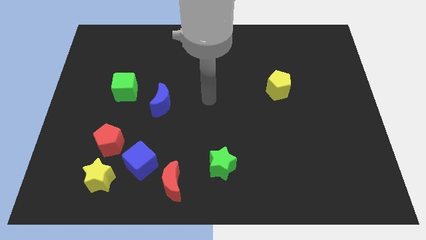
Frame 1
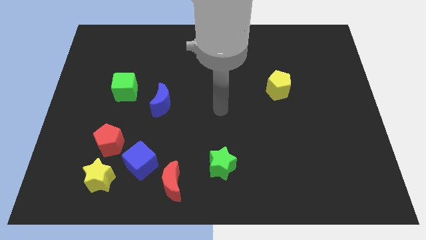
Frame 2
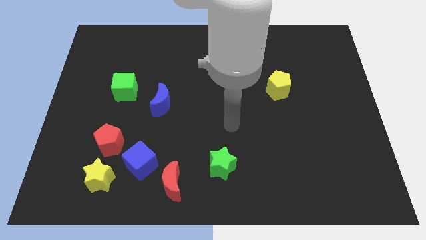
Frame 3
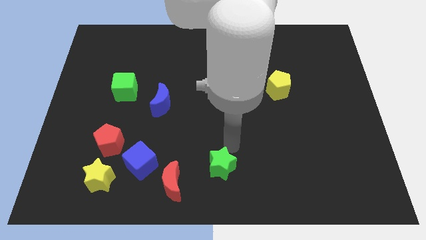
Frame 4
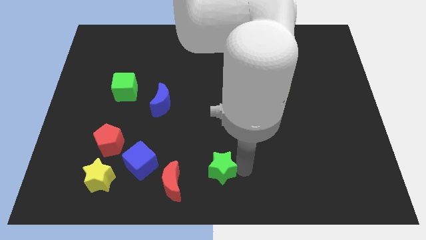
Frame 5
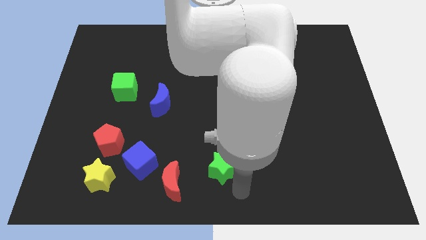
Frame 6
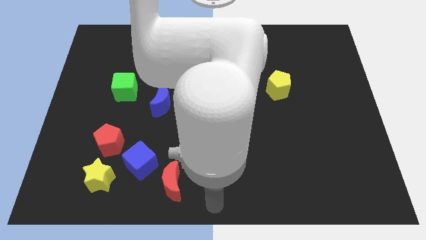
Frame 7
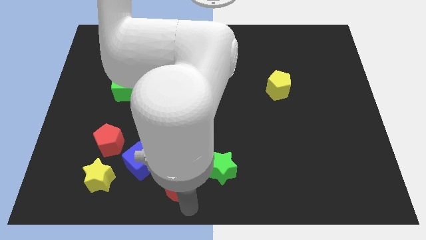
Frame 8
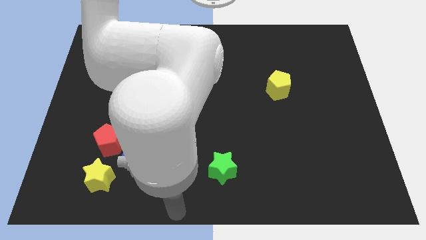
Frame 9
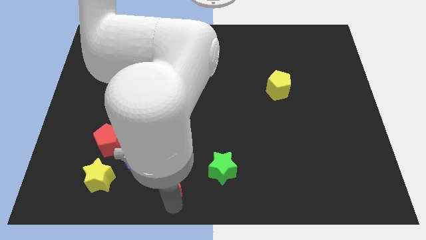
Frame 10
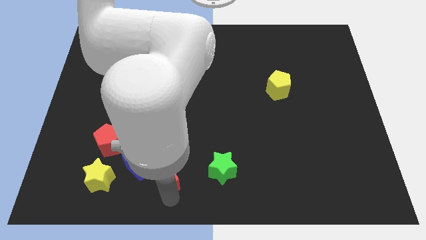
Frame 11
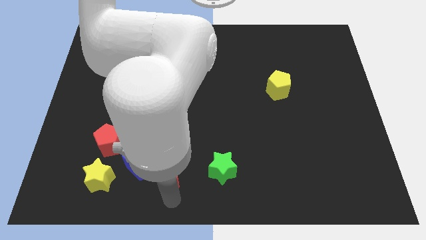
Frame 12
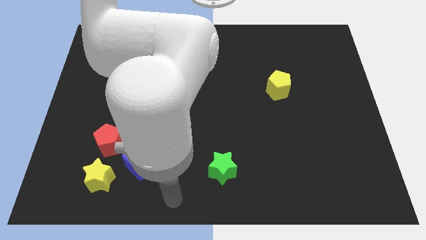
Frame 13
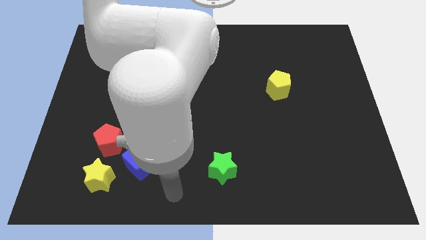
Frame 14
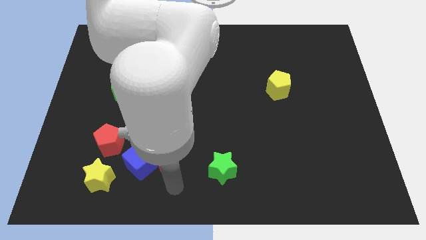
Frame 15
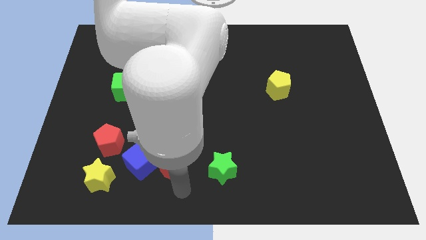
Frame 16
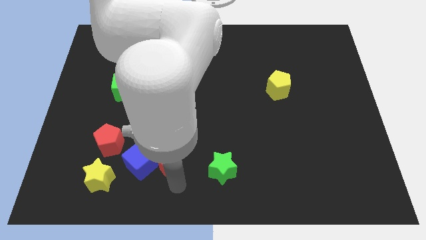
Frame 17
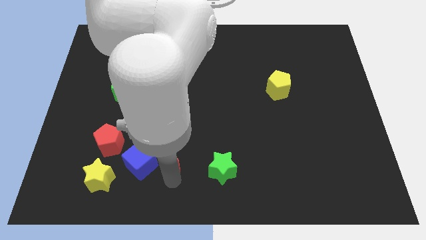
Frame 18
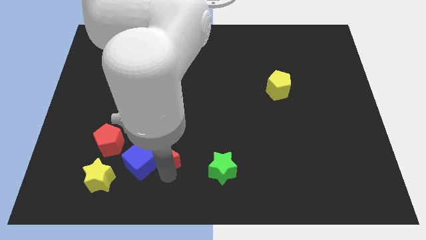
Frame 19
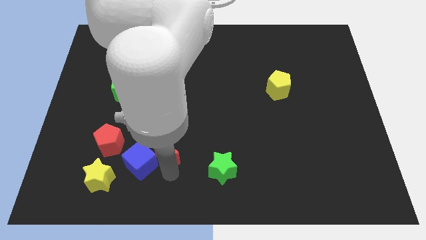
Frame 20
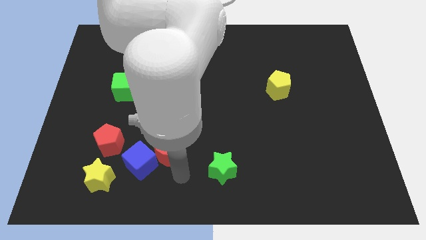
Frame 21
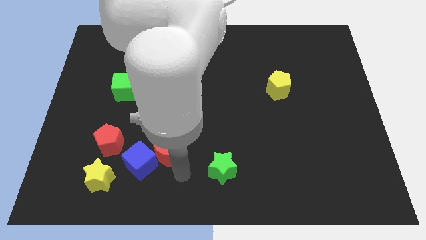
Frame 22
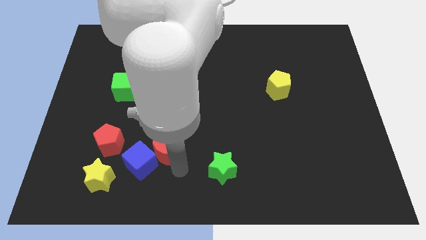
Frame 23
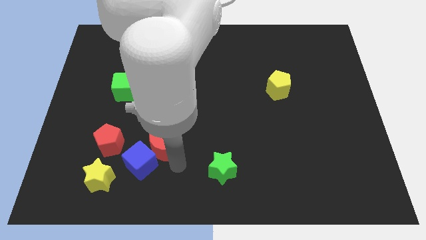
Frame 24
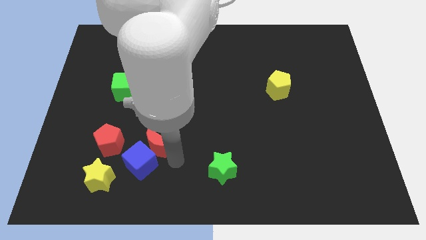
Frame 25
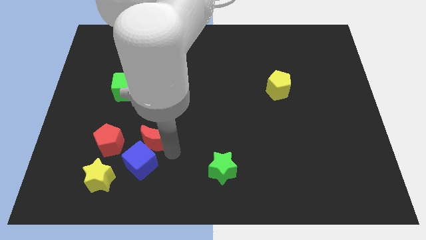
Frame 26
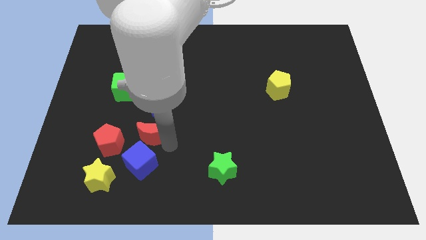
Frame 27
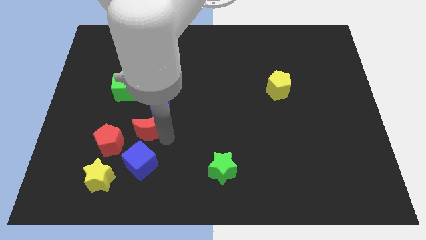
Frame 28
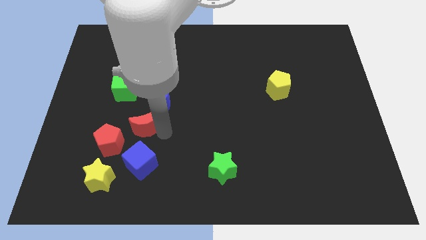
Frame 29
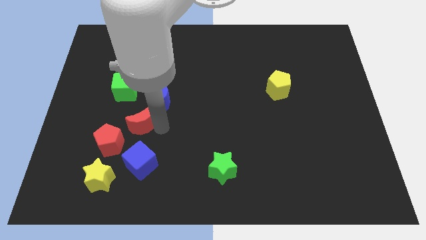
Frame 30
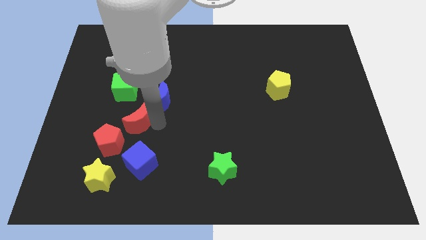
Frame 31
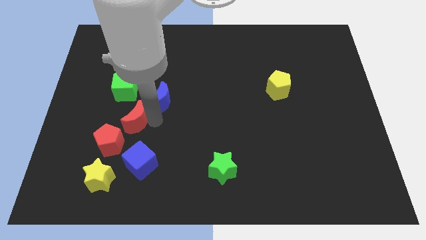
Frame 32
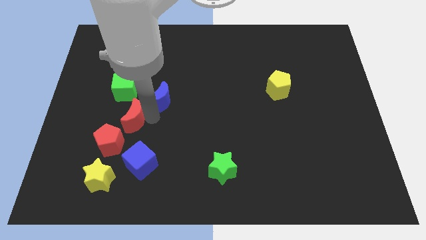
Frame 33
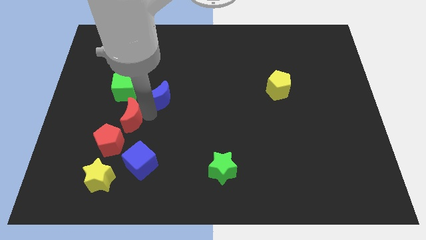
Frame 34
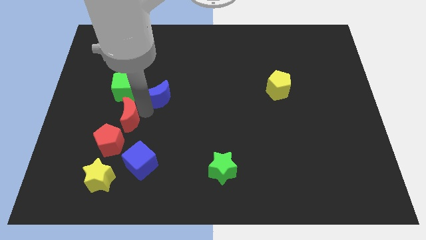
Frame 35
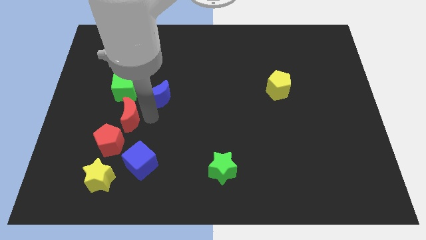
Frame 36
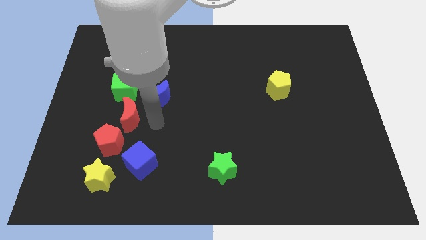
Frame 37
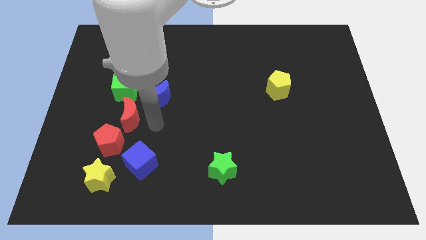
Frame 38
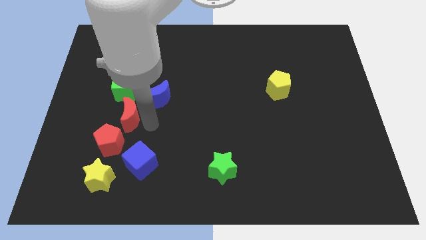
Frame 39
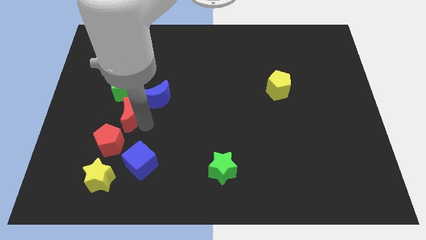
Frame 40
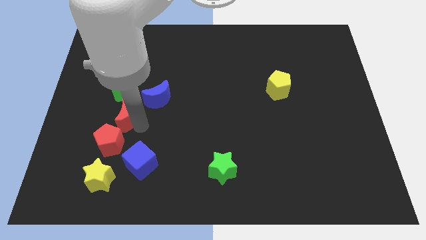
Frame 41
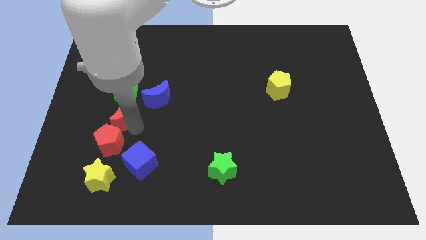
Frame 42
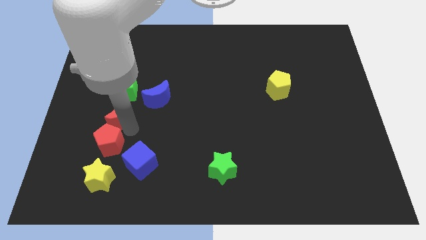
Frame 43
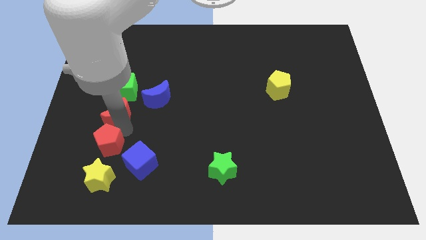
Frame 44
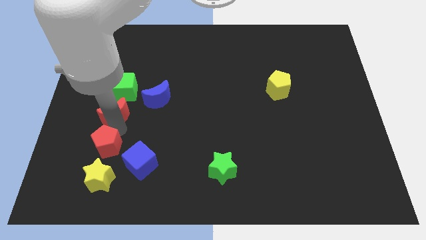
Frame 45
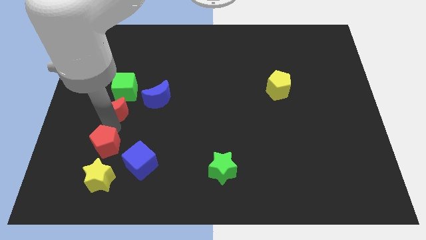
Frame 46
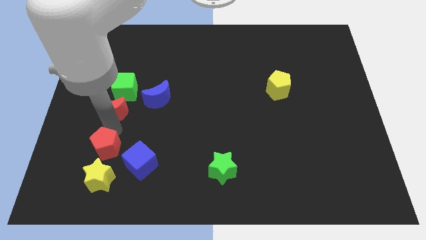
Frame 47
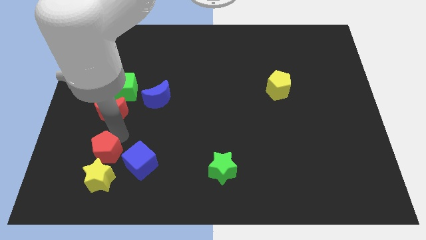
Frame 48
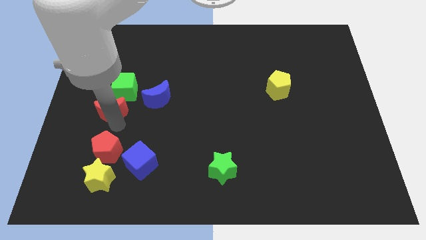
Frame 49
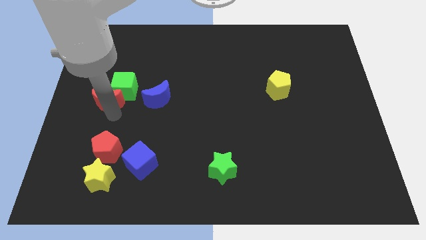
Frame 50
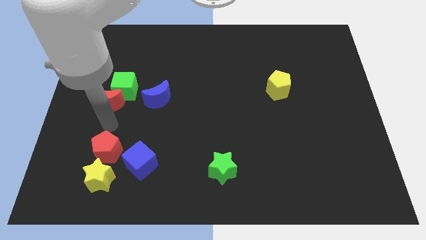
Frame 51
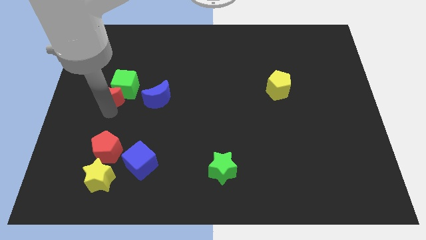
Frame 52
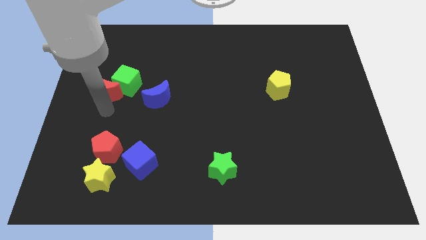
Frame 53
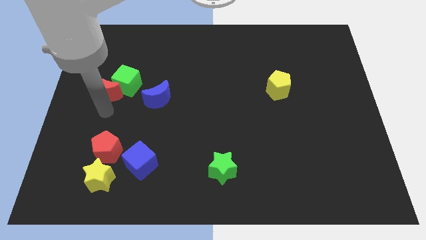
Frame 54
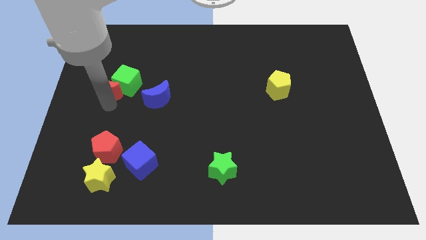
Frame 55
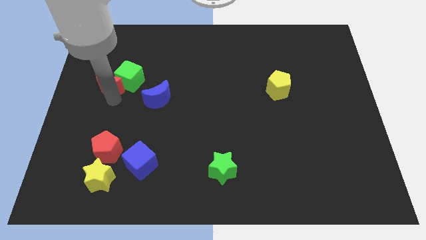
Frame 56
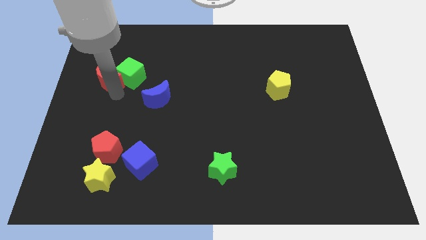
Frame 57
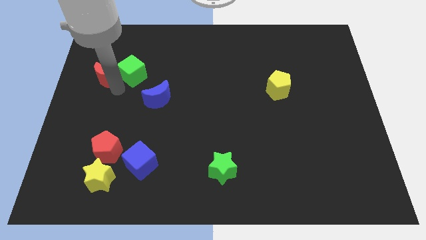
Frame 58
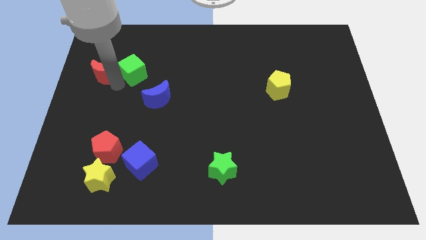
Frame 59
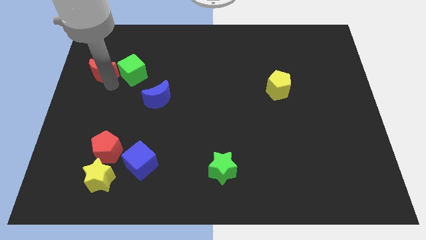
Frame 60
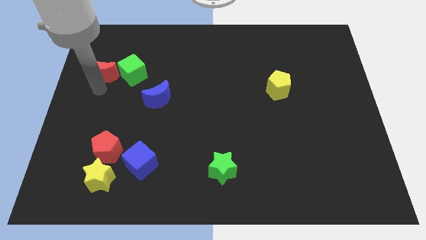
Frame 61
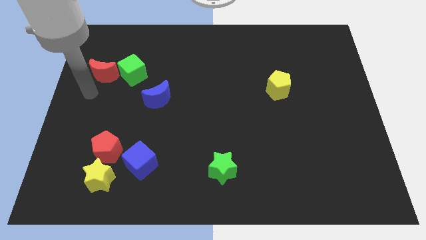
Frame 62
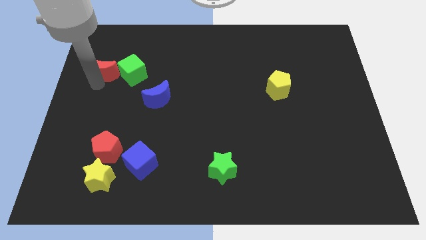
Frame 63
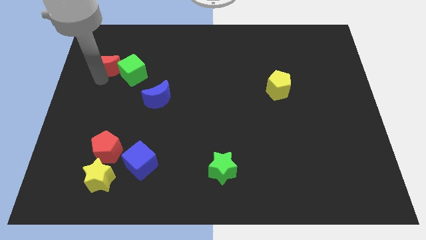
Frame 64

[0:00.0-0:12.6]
put the red moon to the top left side of the green cube
